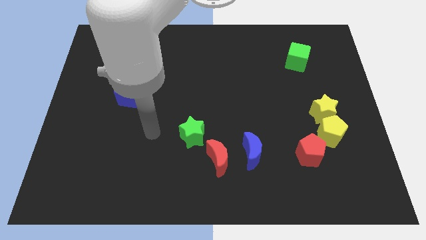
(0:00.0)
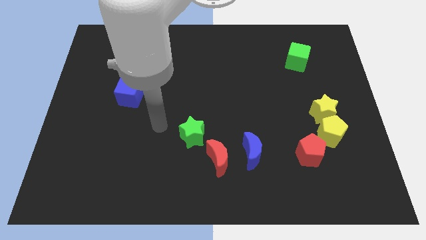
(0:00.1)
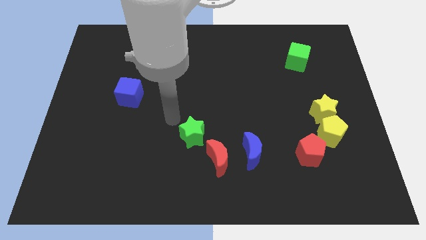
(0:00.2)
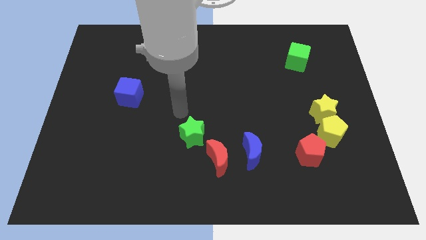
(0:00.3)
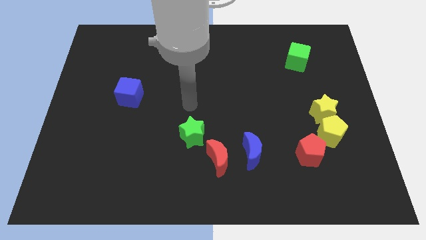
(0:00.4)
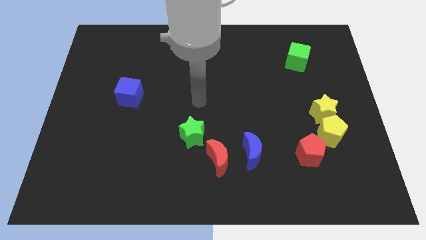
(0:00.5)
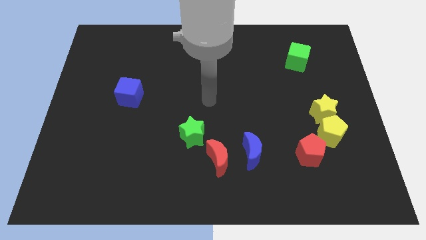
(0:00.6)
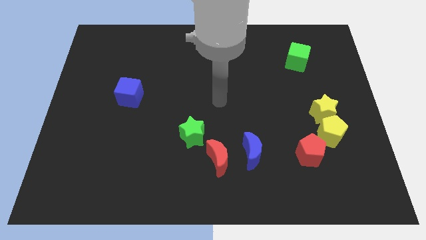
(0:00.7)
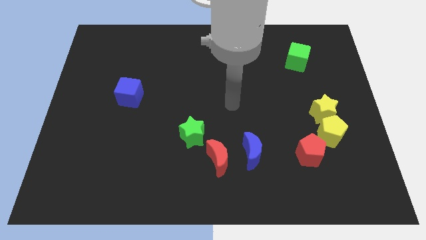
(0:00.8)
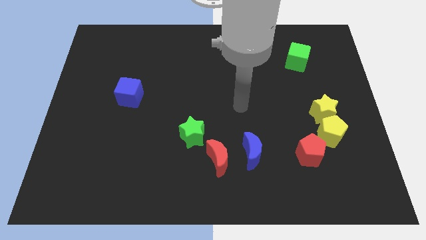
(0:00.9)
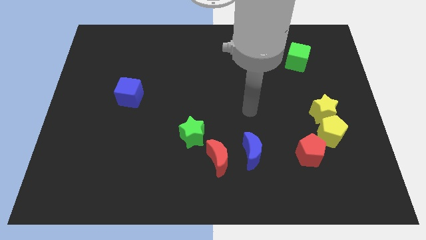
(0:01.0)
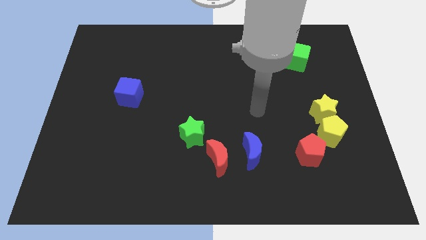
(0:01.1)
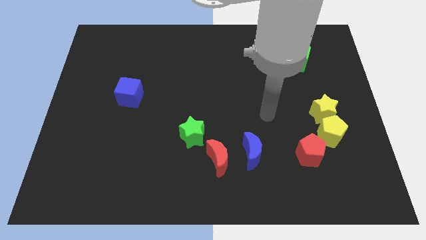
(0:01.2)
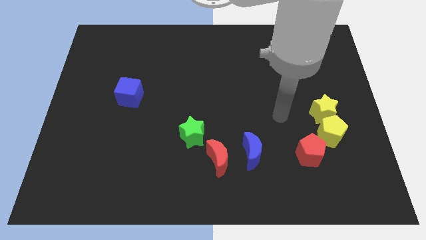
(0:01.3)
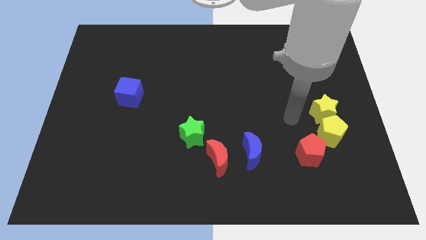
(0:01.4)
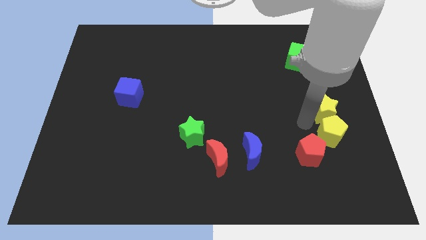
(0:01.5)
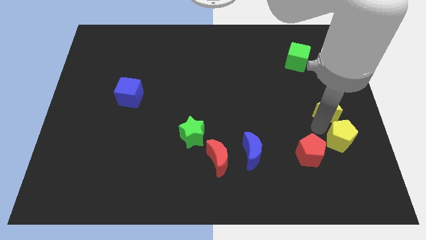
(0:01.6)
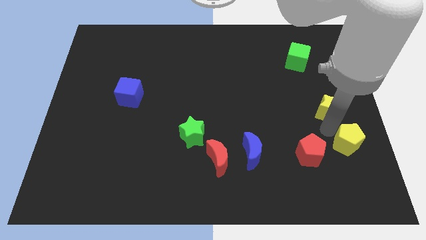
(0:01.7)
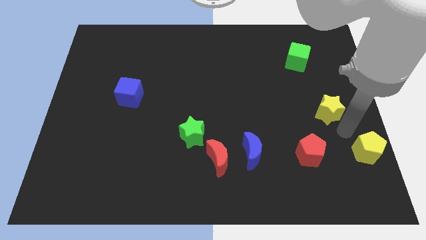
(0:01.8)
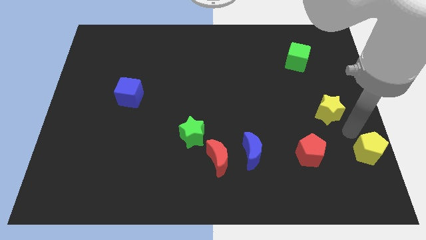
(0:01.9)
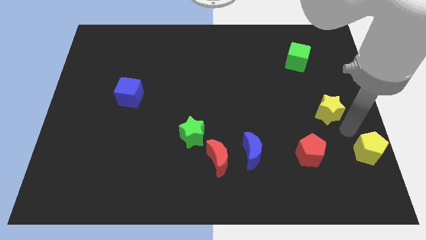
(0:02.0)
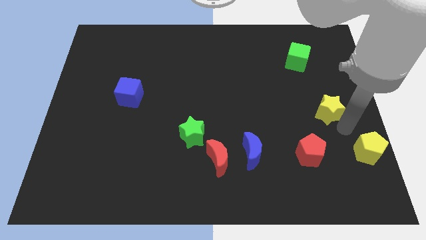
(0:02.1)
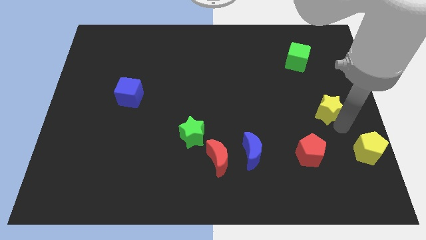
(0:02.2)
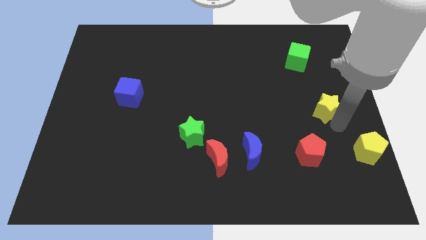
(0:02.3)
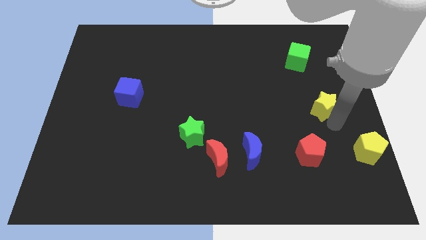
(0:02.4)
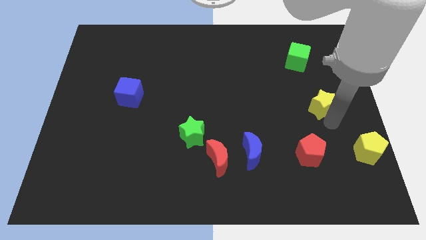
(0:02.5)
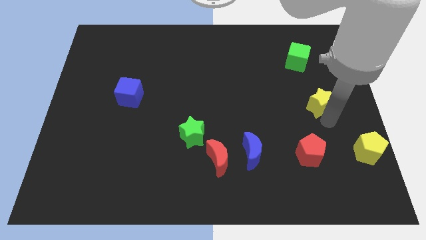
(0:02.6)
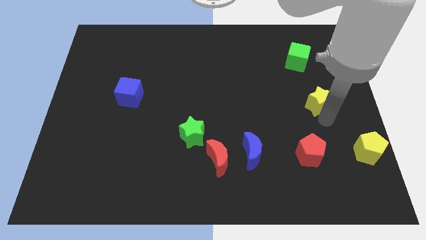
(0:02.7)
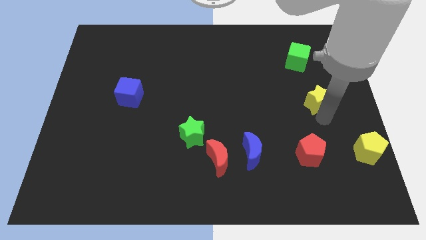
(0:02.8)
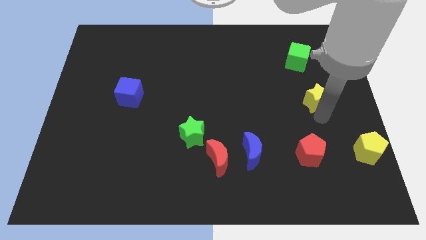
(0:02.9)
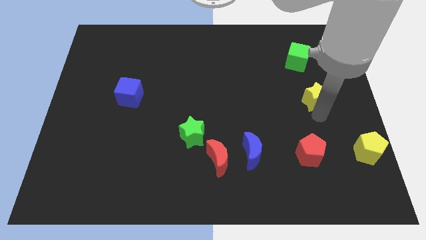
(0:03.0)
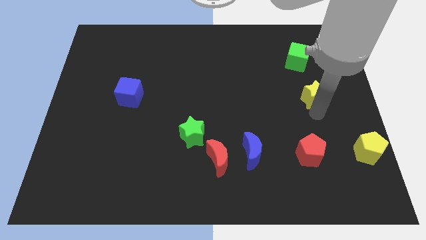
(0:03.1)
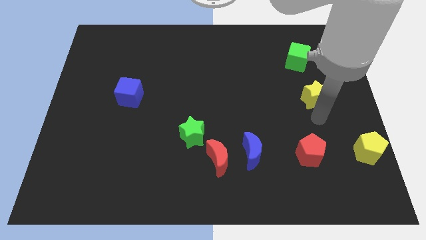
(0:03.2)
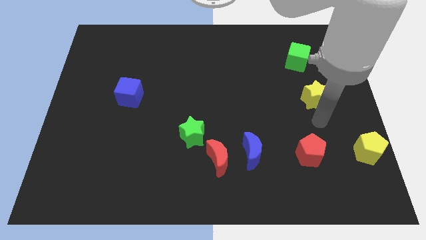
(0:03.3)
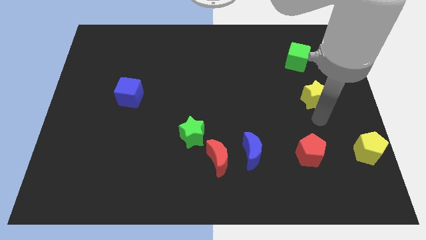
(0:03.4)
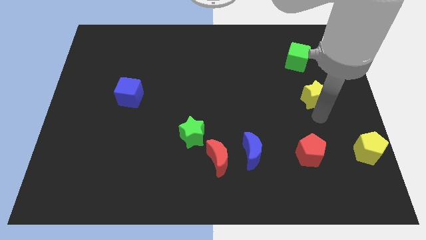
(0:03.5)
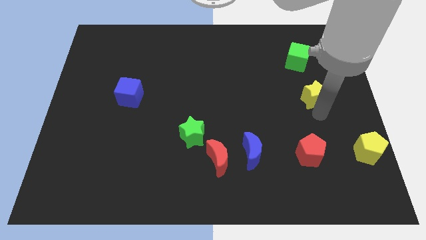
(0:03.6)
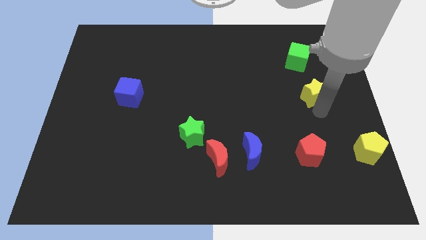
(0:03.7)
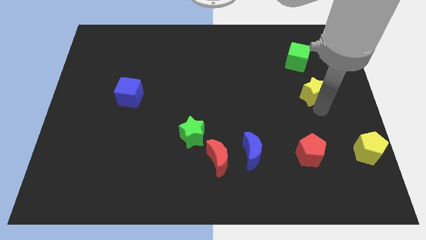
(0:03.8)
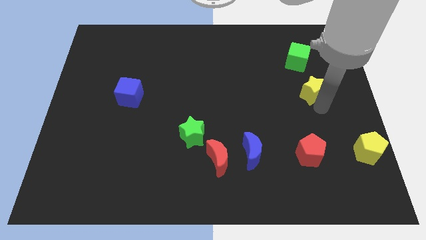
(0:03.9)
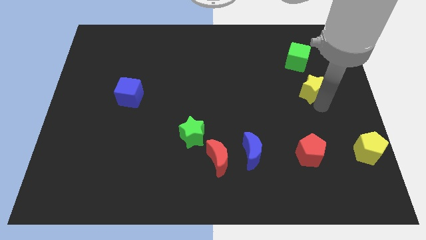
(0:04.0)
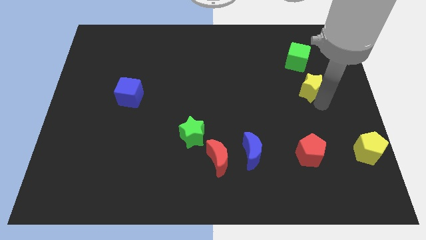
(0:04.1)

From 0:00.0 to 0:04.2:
slightly move the yellow star up

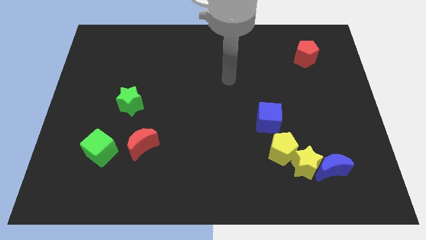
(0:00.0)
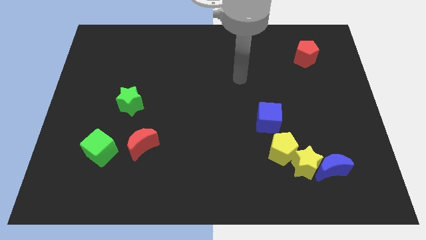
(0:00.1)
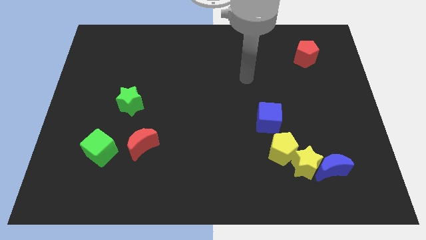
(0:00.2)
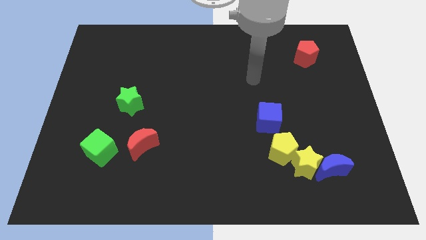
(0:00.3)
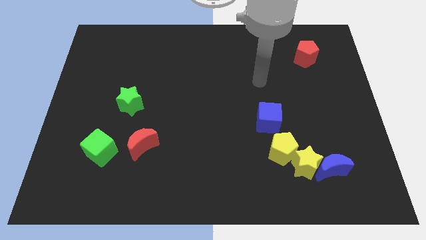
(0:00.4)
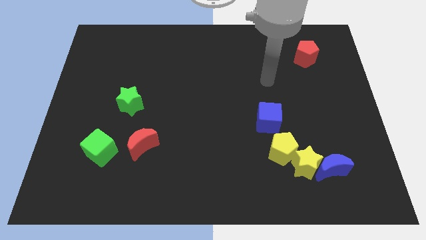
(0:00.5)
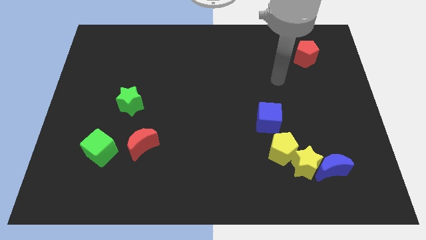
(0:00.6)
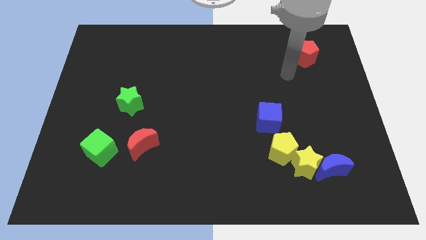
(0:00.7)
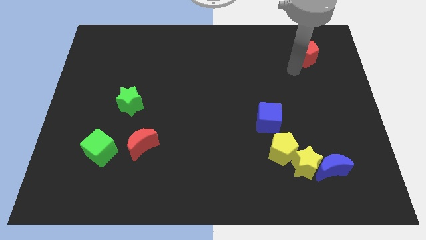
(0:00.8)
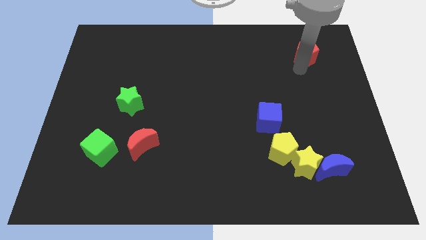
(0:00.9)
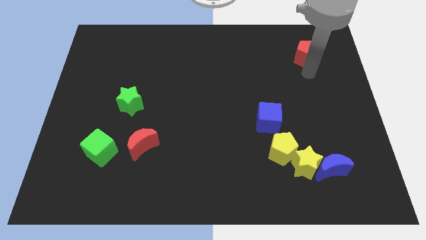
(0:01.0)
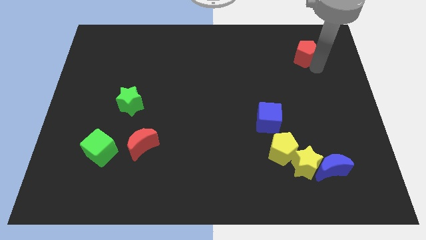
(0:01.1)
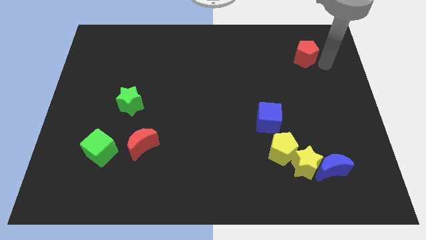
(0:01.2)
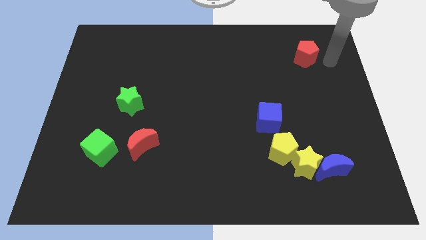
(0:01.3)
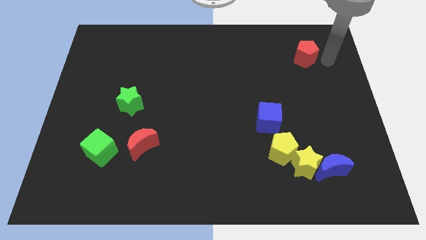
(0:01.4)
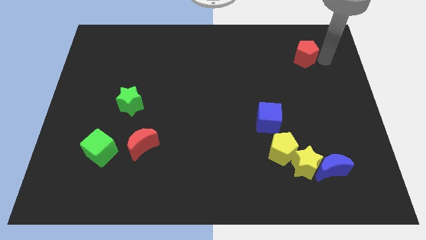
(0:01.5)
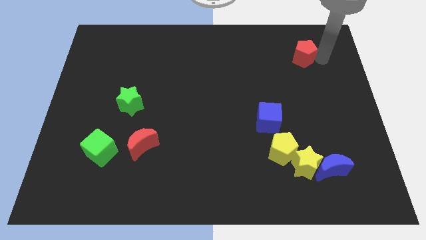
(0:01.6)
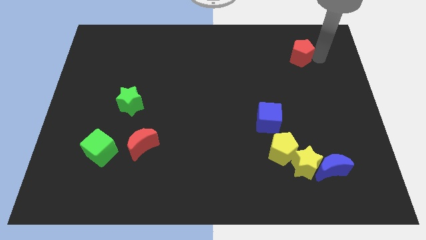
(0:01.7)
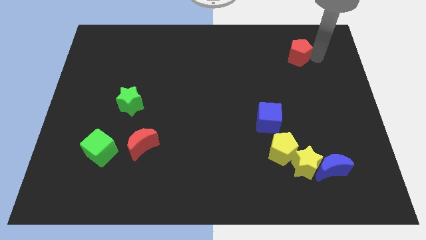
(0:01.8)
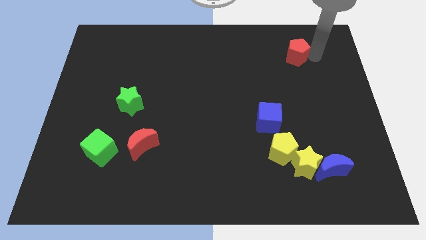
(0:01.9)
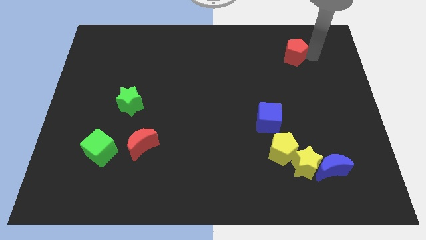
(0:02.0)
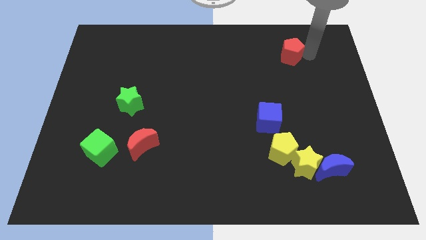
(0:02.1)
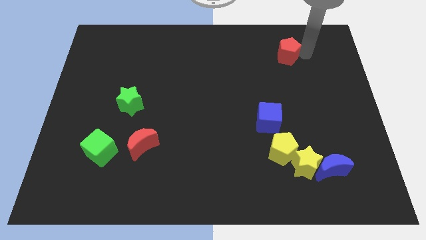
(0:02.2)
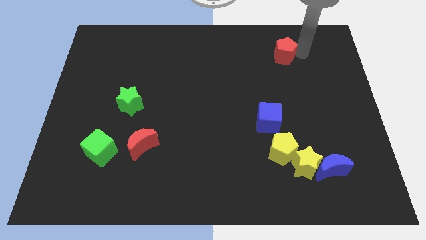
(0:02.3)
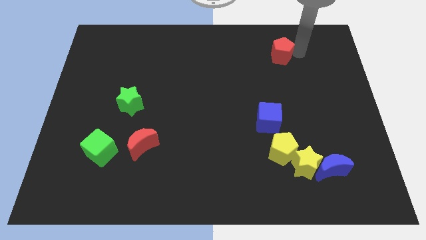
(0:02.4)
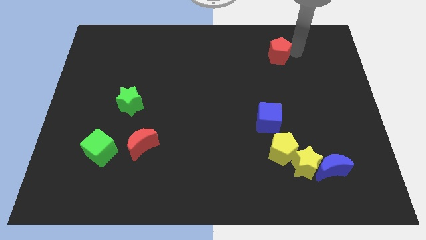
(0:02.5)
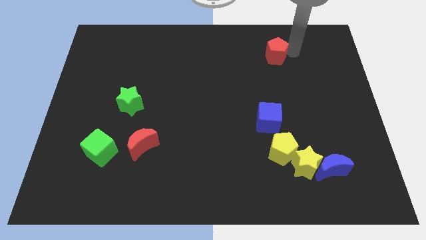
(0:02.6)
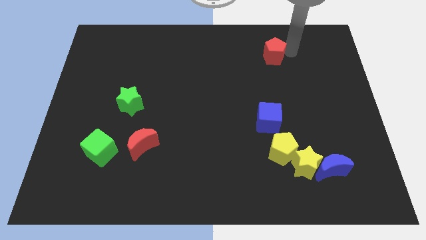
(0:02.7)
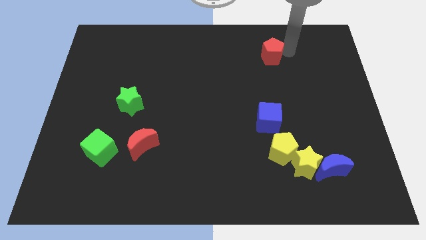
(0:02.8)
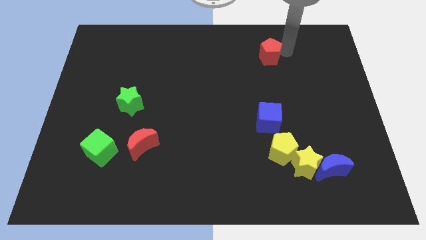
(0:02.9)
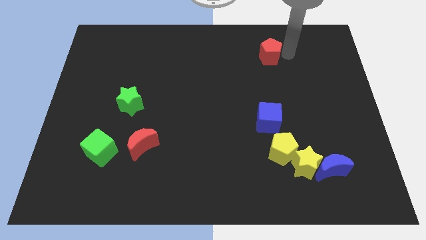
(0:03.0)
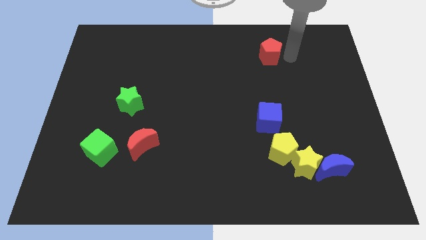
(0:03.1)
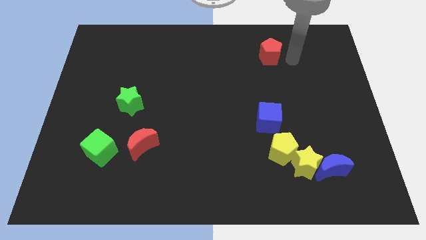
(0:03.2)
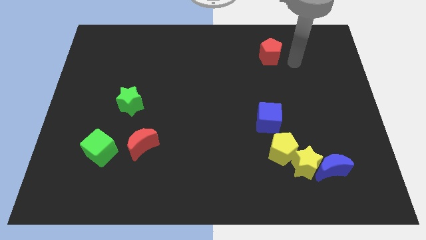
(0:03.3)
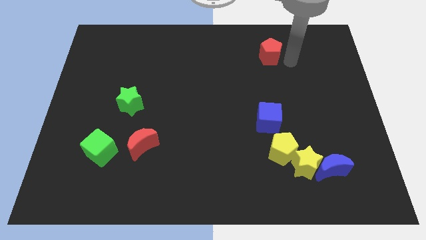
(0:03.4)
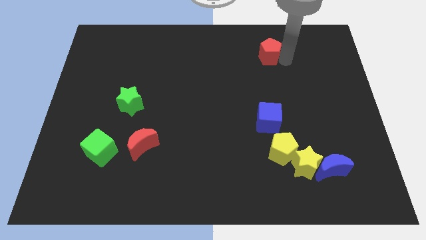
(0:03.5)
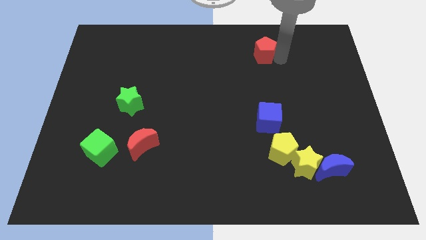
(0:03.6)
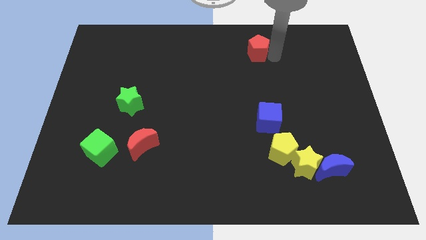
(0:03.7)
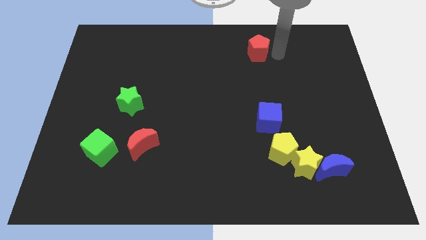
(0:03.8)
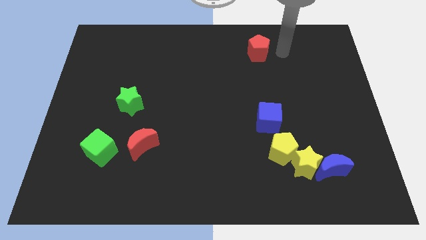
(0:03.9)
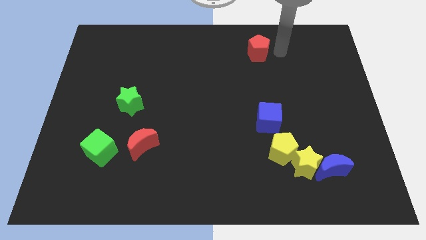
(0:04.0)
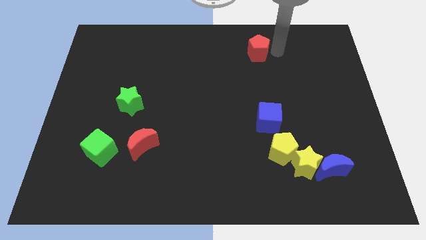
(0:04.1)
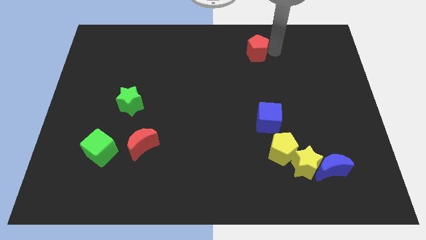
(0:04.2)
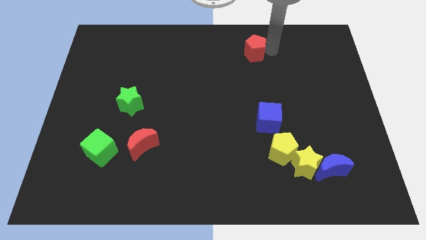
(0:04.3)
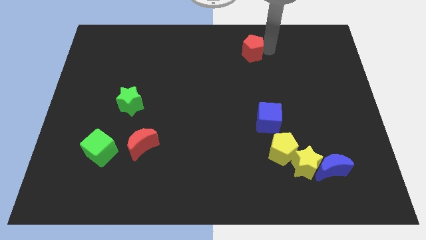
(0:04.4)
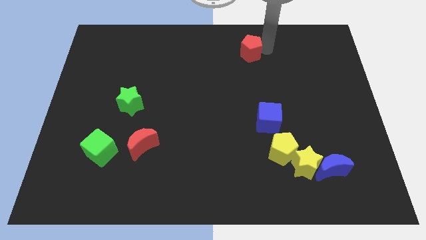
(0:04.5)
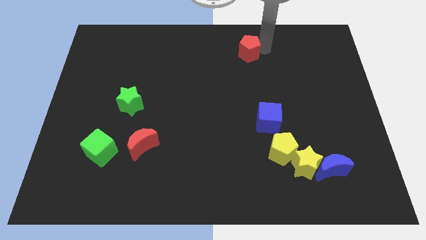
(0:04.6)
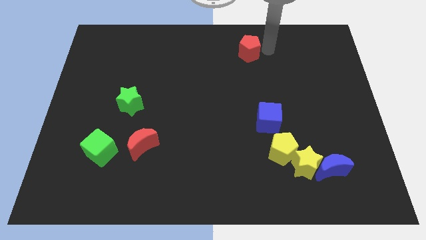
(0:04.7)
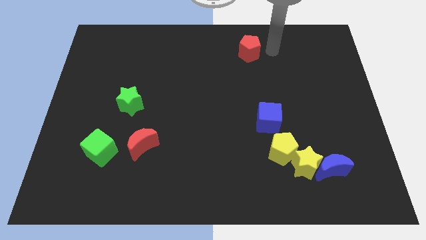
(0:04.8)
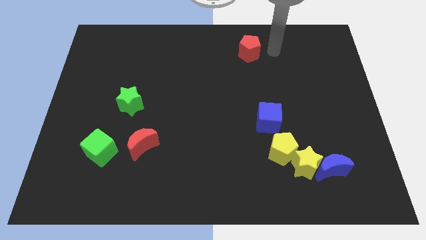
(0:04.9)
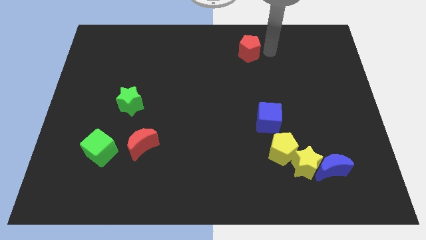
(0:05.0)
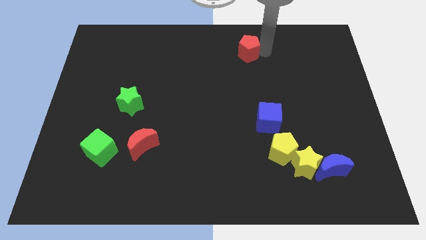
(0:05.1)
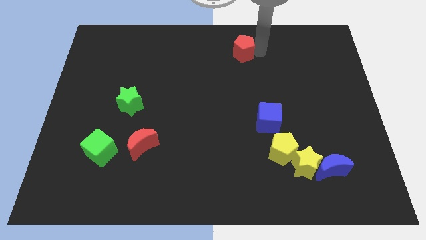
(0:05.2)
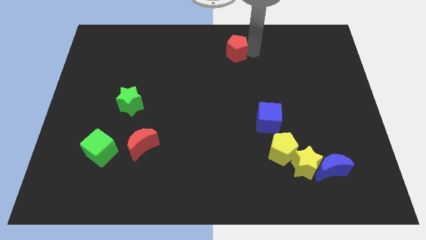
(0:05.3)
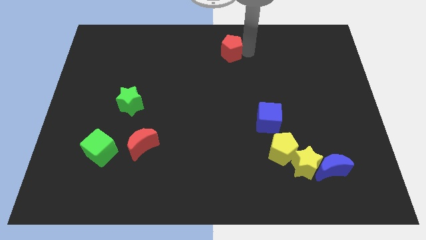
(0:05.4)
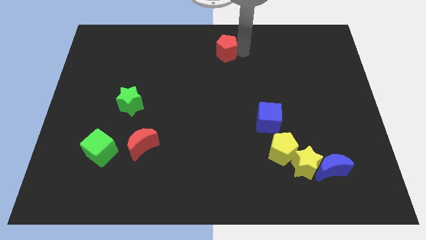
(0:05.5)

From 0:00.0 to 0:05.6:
push the red pentagon left
